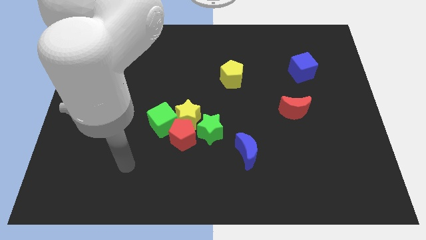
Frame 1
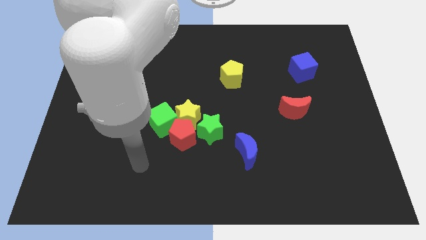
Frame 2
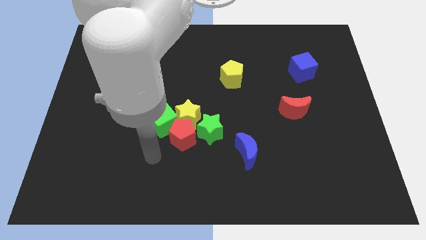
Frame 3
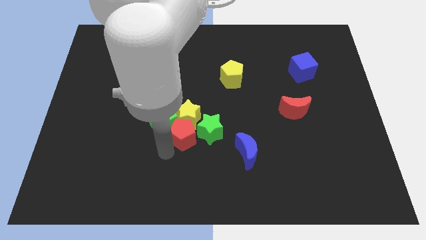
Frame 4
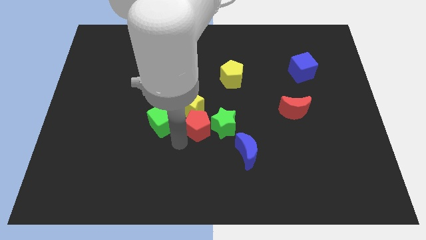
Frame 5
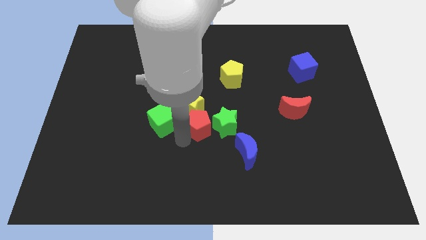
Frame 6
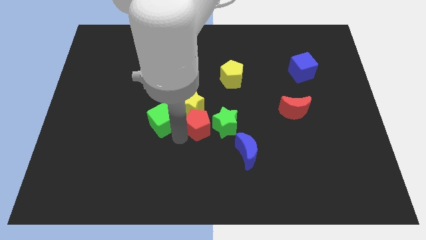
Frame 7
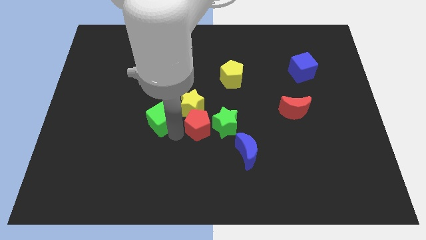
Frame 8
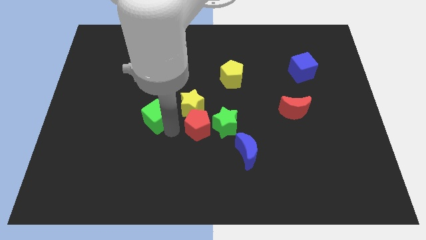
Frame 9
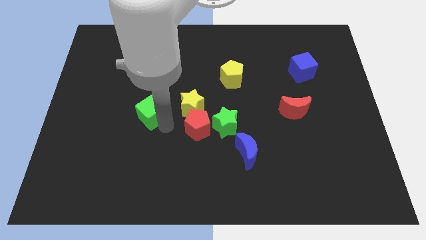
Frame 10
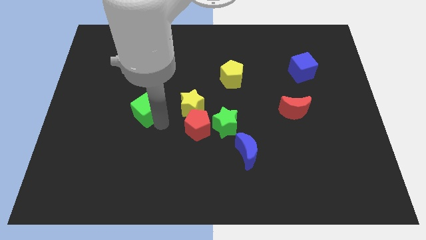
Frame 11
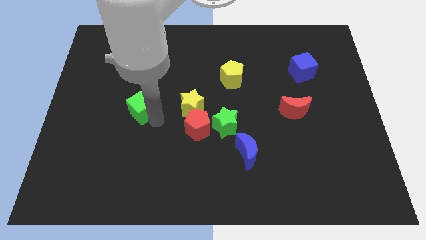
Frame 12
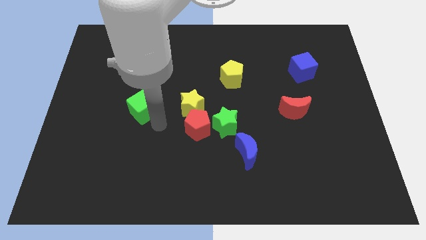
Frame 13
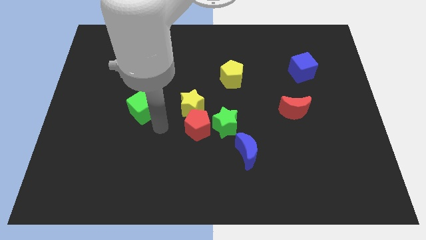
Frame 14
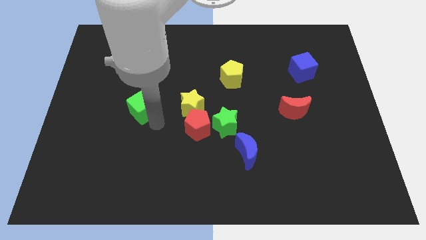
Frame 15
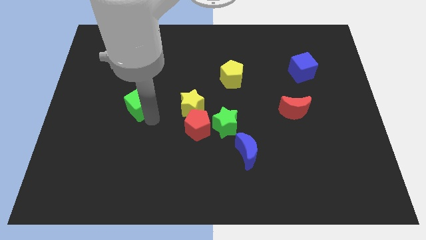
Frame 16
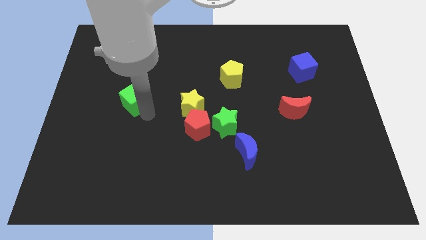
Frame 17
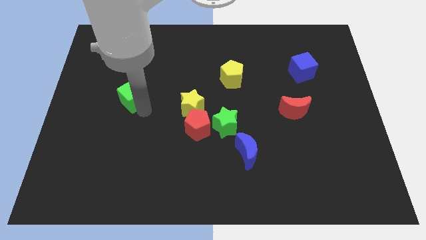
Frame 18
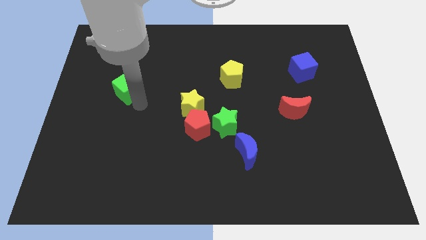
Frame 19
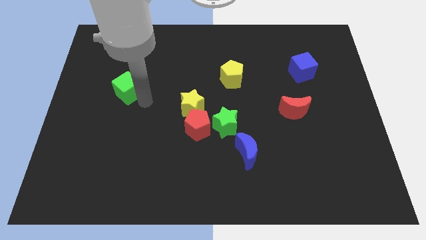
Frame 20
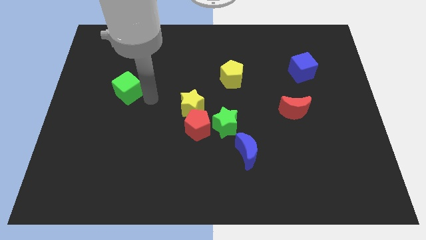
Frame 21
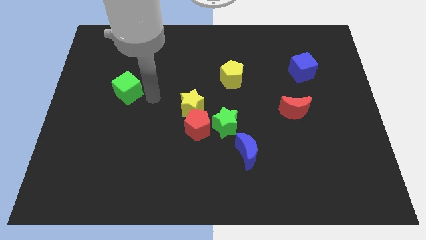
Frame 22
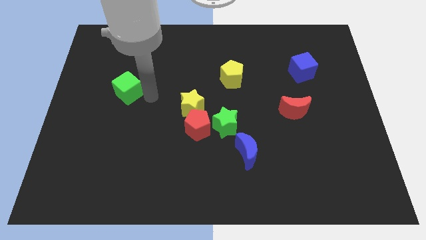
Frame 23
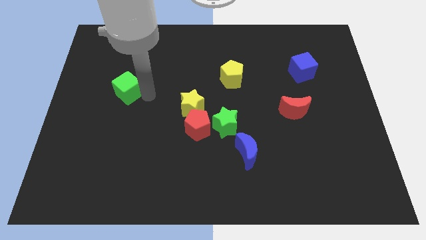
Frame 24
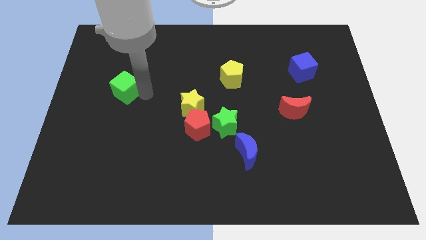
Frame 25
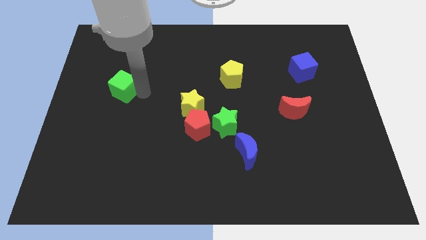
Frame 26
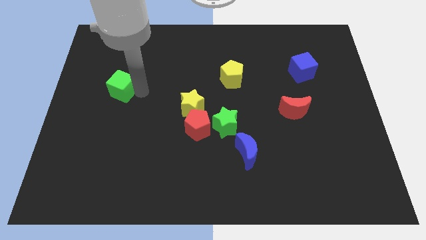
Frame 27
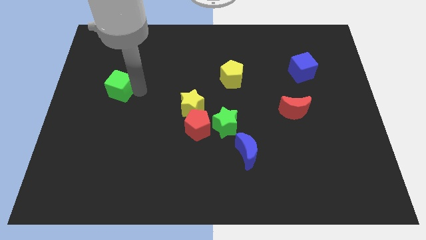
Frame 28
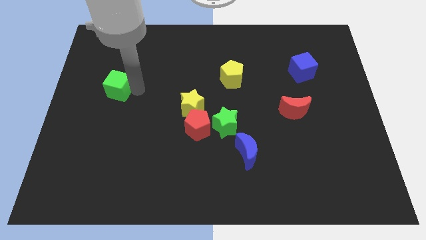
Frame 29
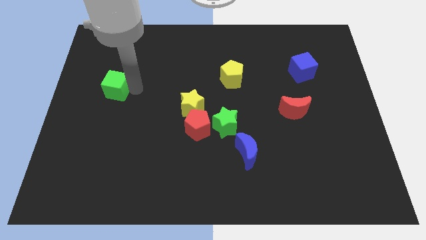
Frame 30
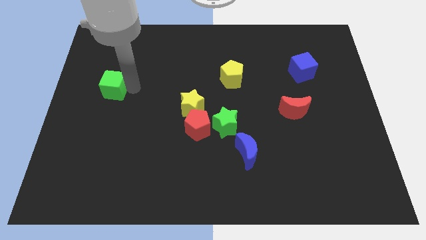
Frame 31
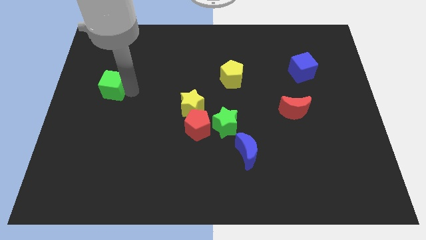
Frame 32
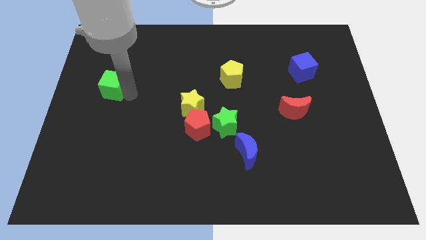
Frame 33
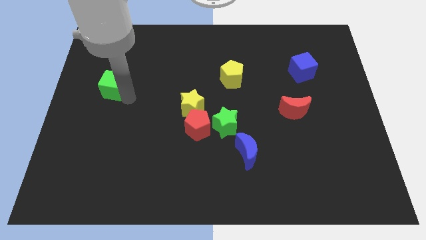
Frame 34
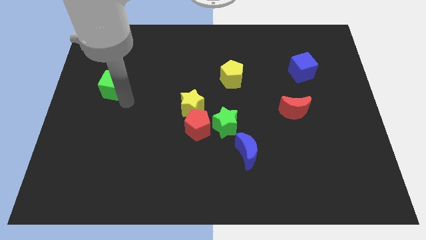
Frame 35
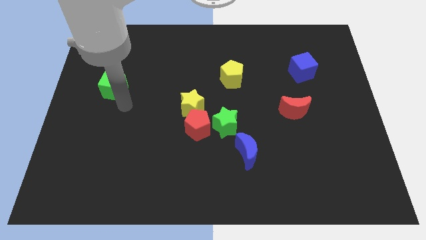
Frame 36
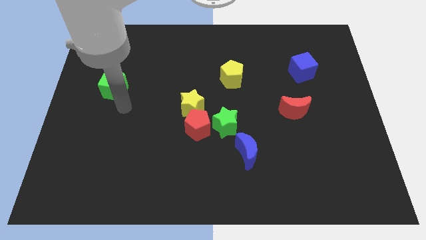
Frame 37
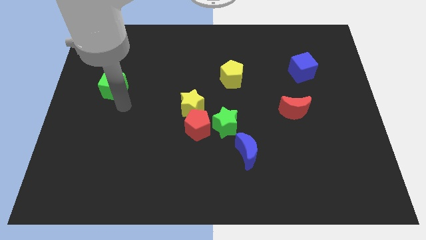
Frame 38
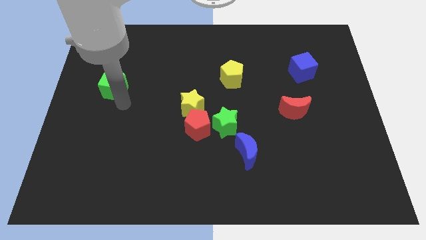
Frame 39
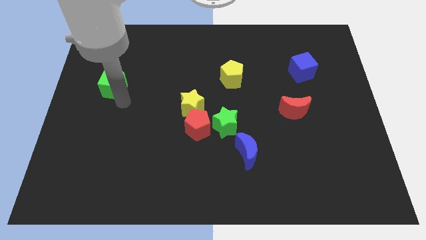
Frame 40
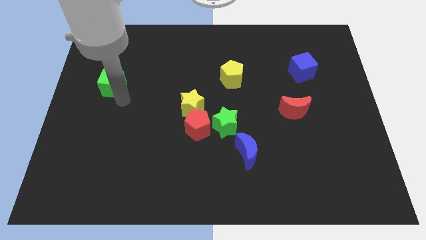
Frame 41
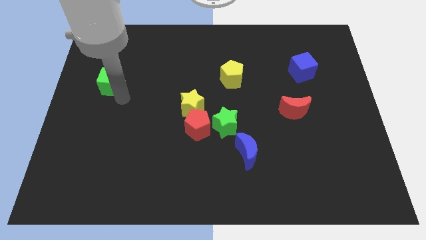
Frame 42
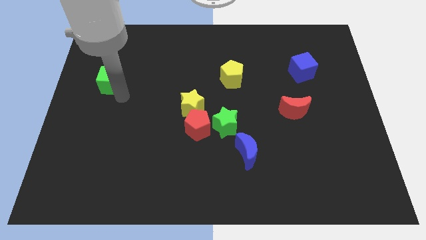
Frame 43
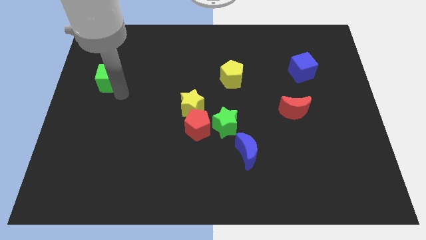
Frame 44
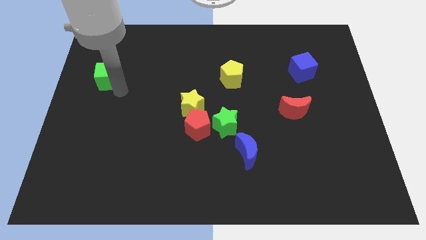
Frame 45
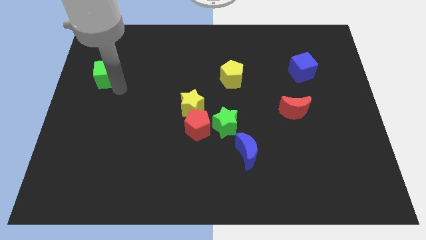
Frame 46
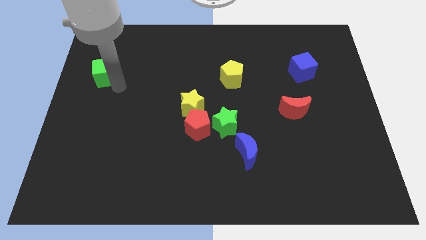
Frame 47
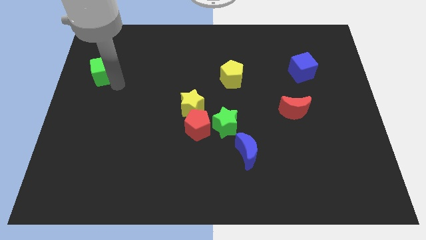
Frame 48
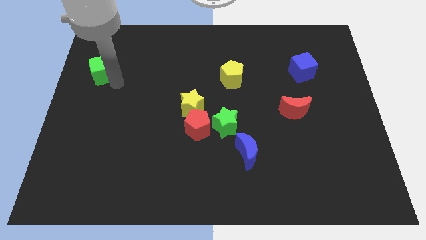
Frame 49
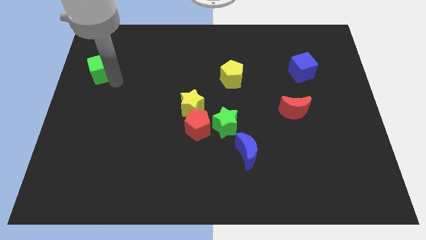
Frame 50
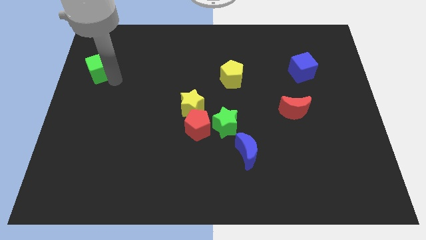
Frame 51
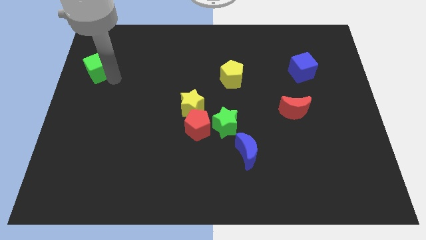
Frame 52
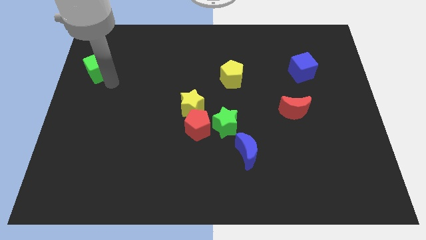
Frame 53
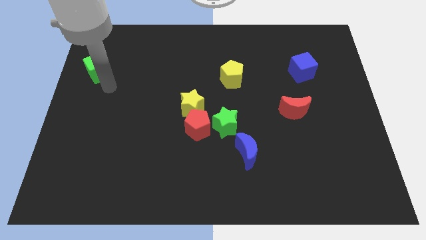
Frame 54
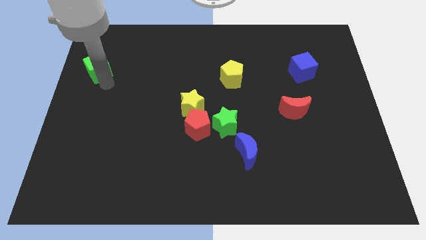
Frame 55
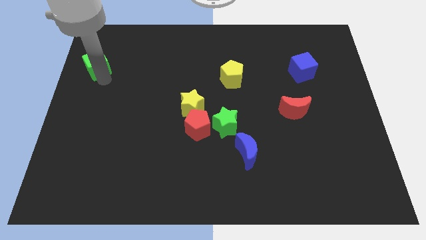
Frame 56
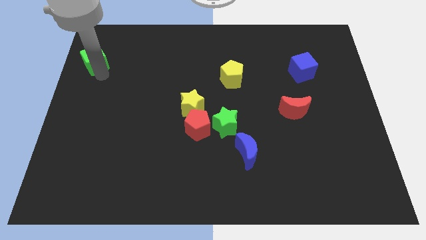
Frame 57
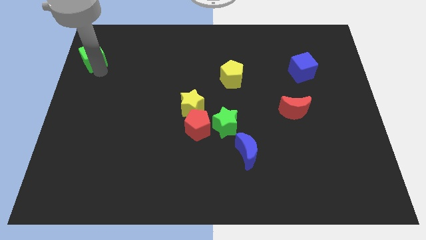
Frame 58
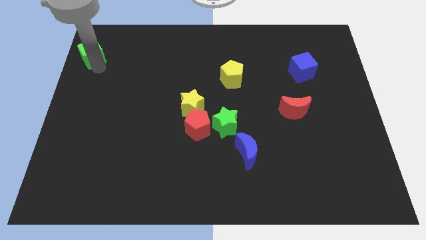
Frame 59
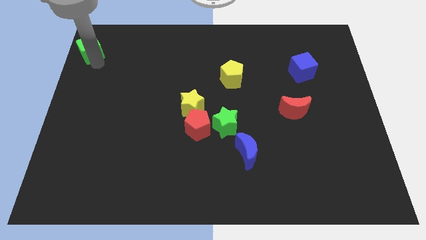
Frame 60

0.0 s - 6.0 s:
push the green cube to the top left of the board

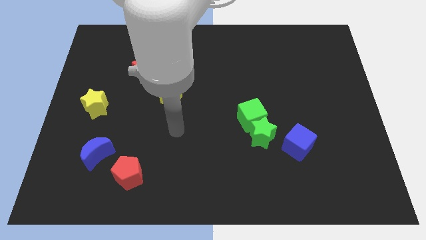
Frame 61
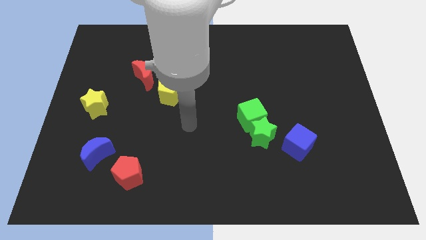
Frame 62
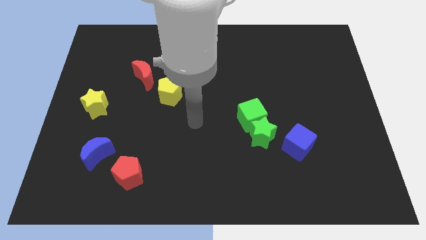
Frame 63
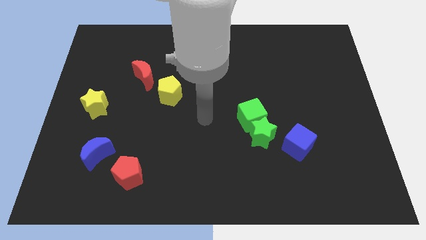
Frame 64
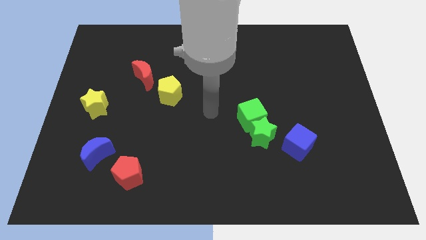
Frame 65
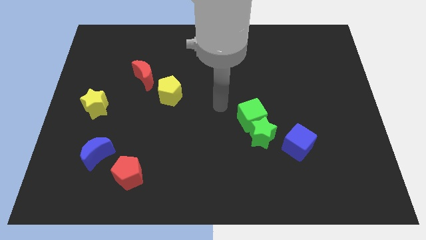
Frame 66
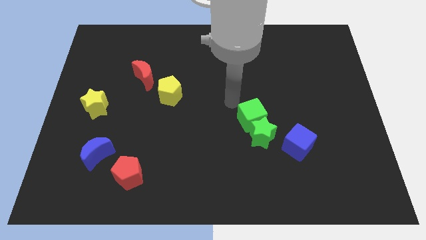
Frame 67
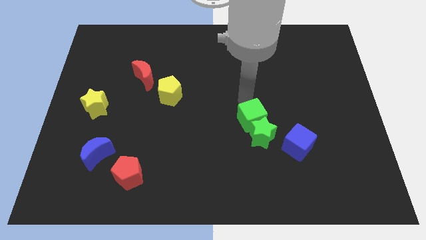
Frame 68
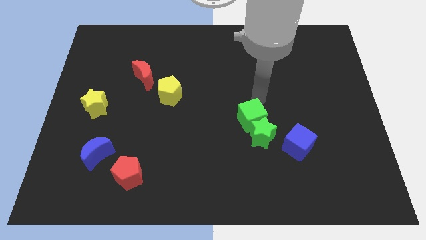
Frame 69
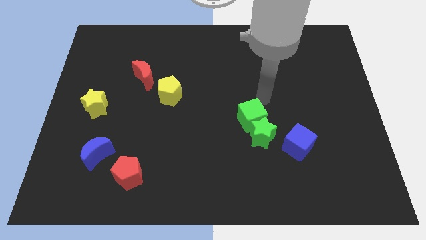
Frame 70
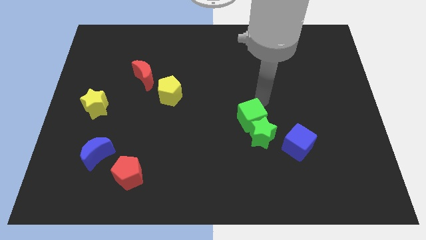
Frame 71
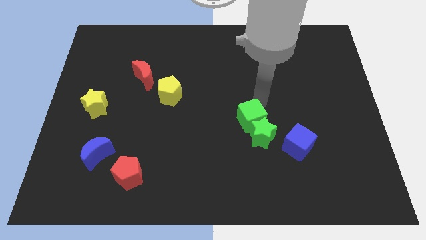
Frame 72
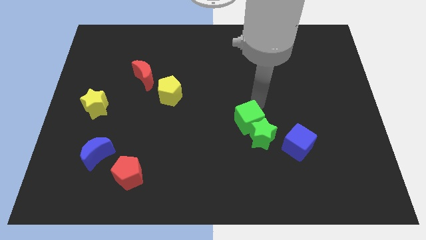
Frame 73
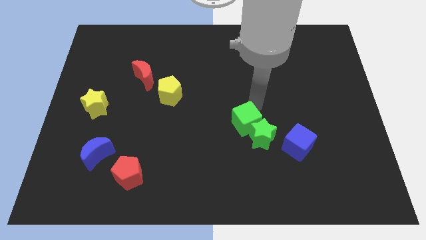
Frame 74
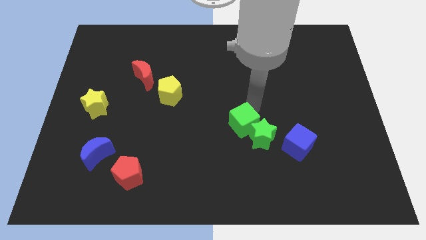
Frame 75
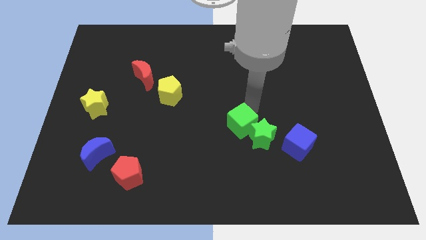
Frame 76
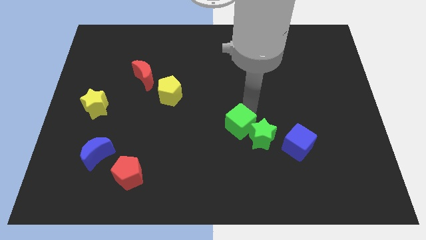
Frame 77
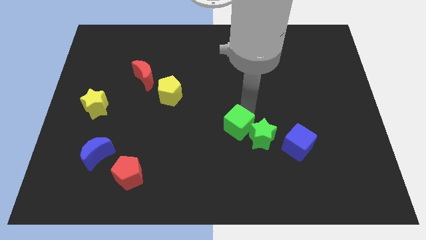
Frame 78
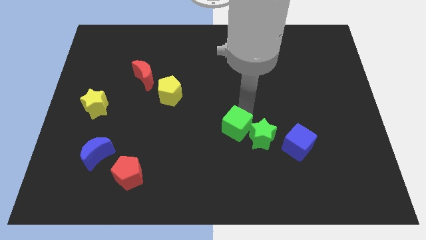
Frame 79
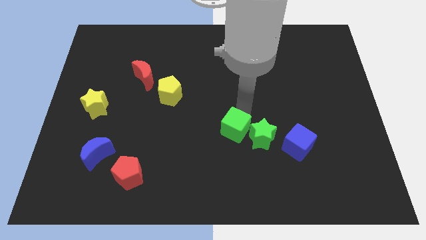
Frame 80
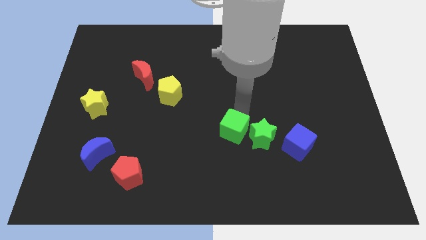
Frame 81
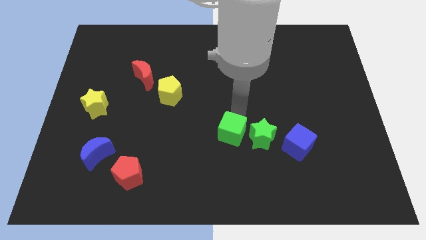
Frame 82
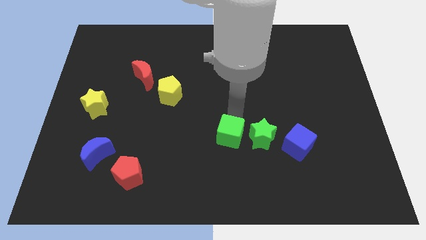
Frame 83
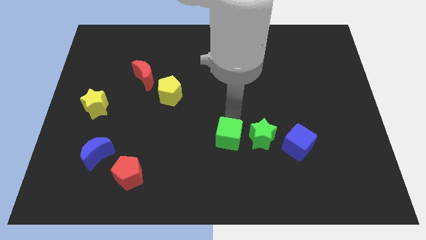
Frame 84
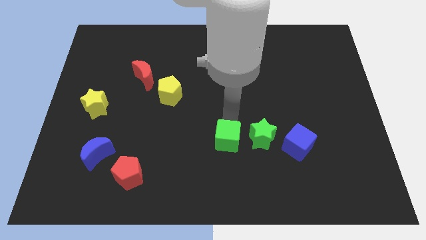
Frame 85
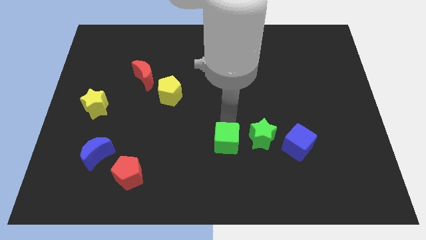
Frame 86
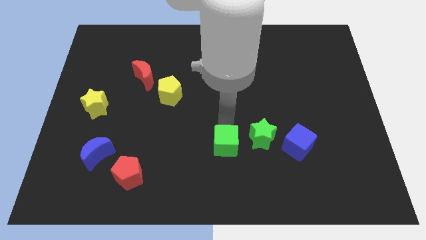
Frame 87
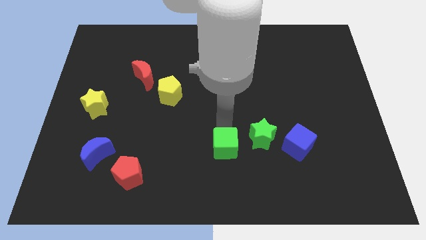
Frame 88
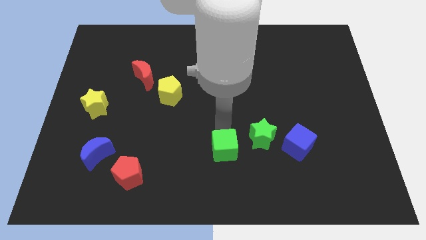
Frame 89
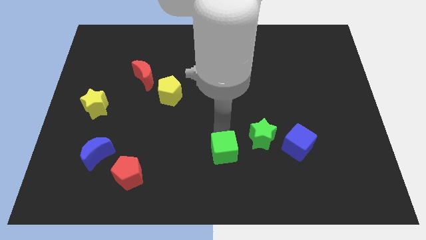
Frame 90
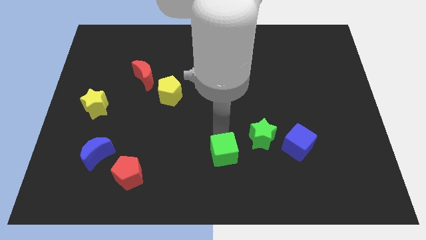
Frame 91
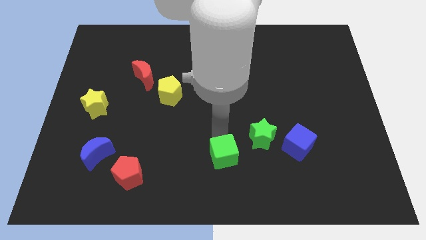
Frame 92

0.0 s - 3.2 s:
slide the green cube to the bottom side
